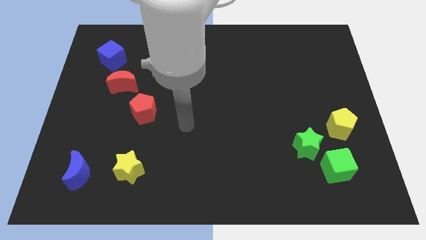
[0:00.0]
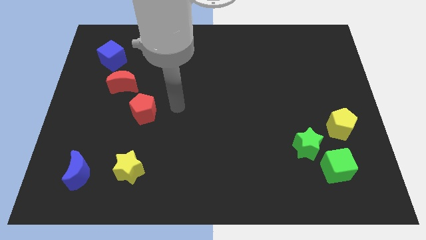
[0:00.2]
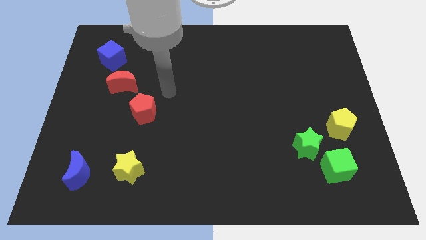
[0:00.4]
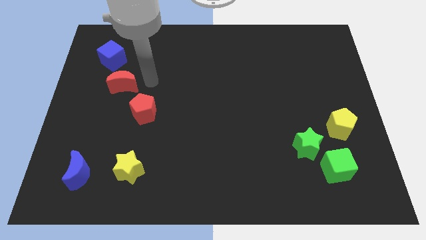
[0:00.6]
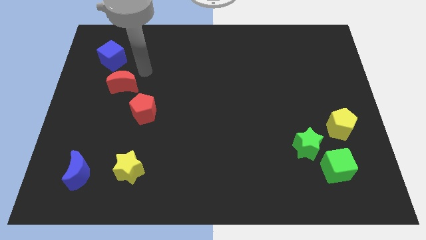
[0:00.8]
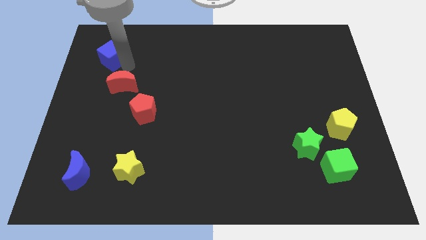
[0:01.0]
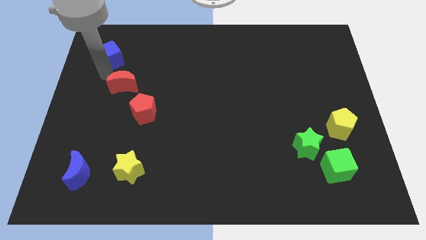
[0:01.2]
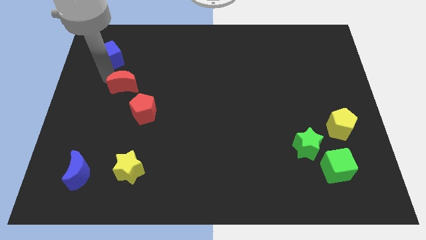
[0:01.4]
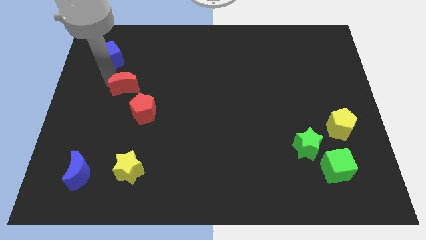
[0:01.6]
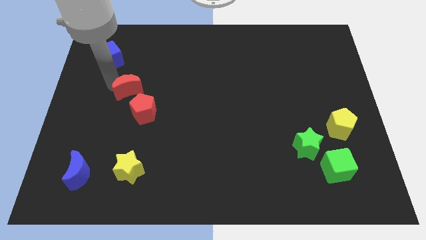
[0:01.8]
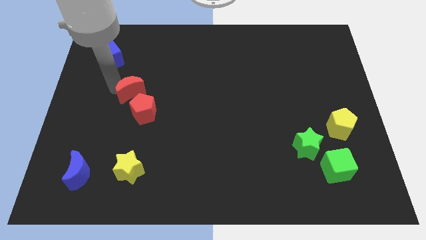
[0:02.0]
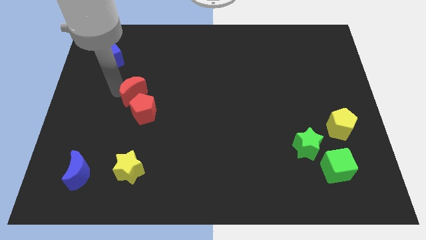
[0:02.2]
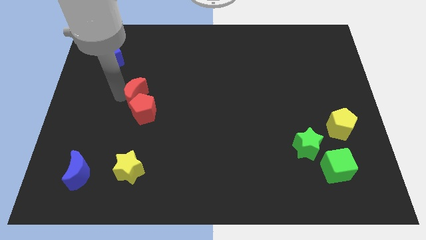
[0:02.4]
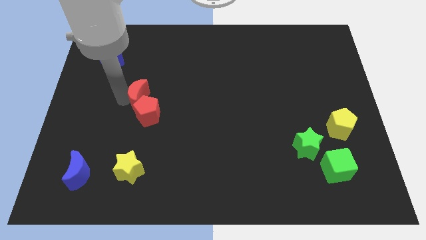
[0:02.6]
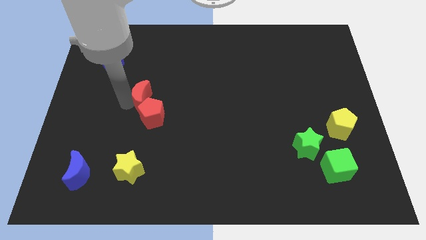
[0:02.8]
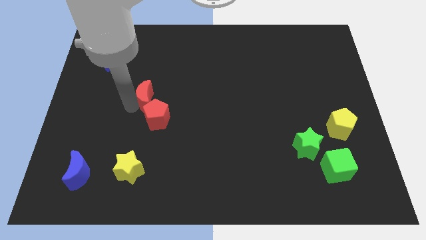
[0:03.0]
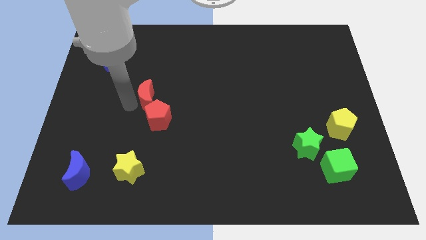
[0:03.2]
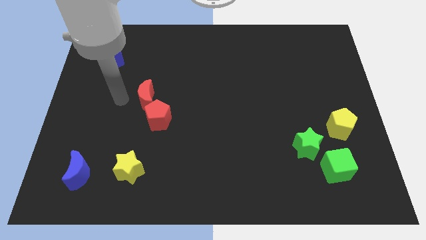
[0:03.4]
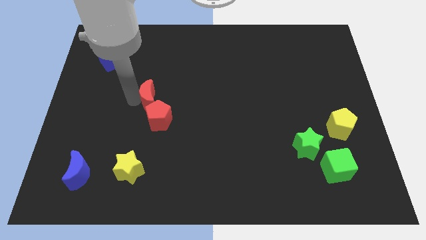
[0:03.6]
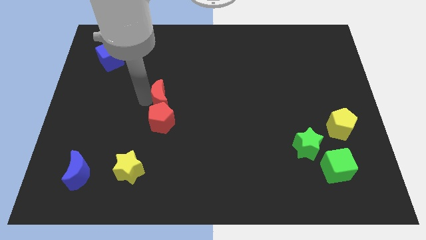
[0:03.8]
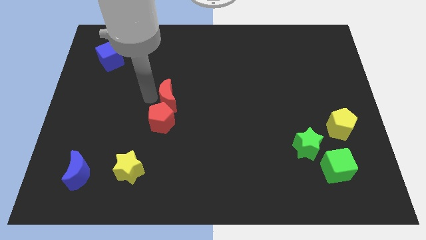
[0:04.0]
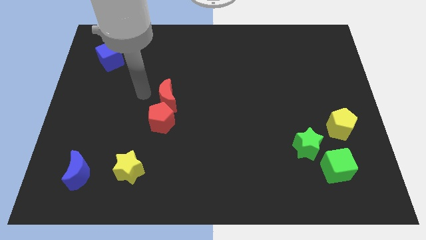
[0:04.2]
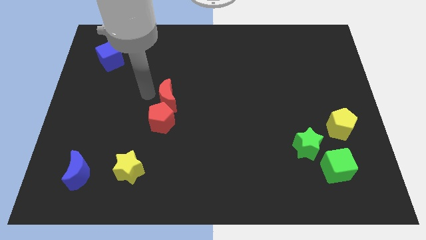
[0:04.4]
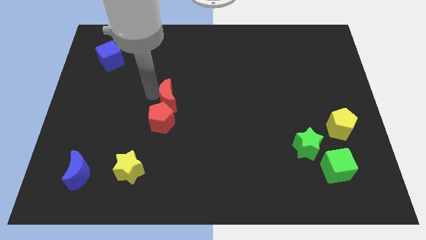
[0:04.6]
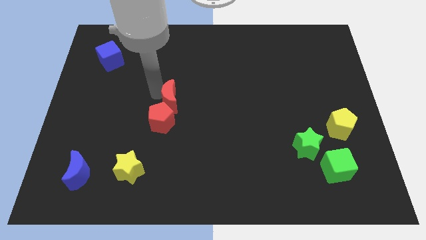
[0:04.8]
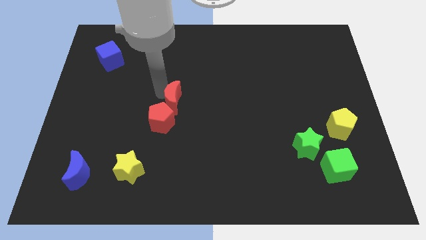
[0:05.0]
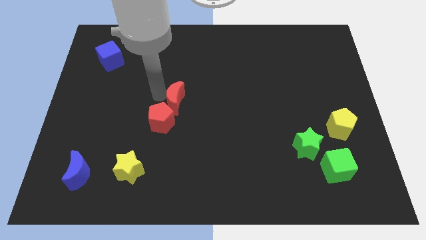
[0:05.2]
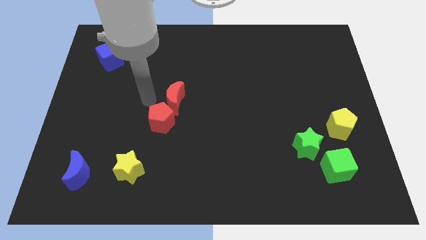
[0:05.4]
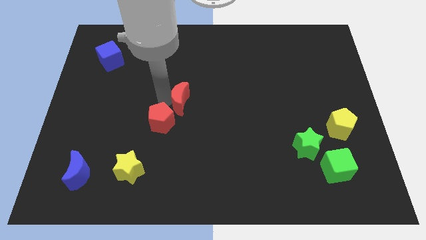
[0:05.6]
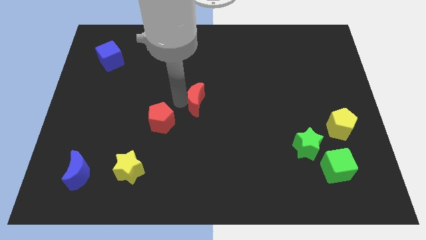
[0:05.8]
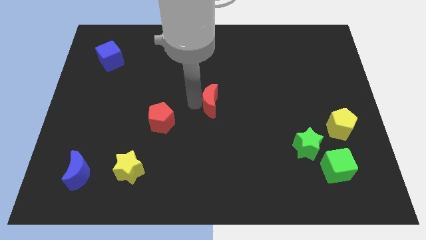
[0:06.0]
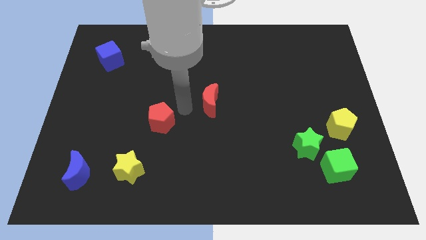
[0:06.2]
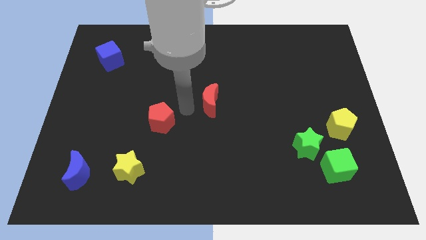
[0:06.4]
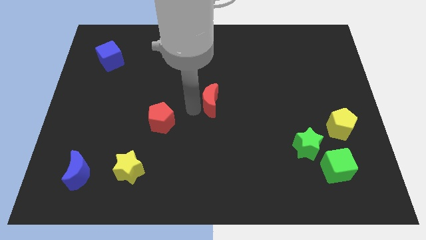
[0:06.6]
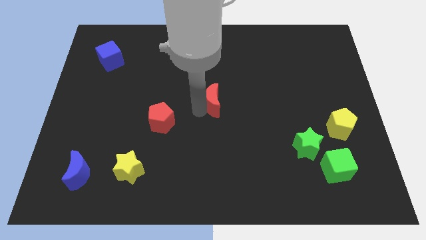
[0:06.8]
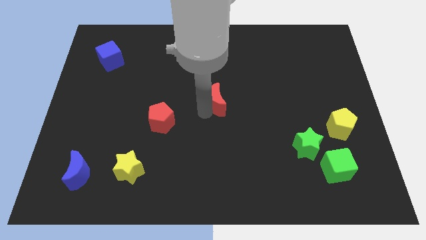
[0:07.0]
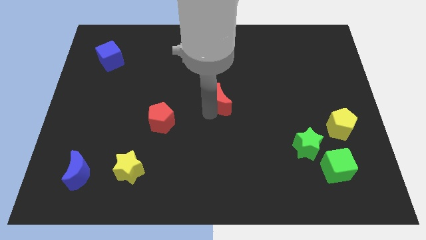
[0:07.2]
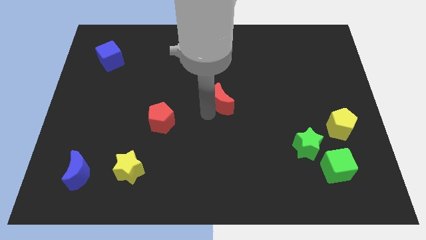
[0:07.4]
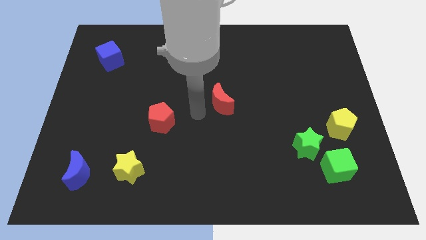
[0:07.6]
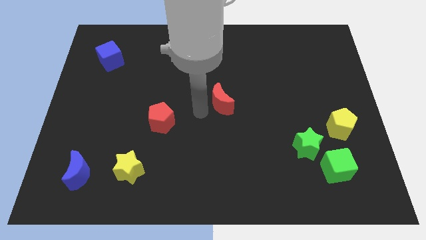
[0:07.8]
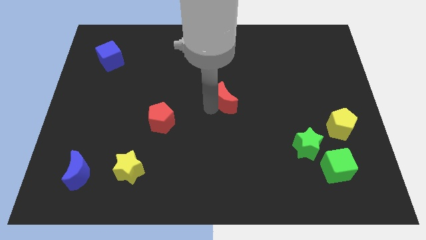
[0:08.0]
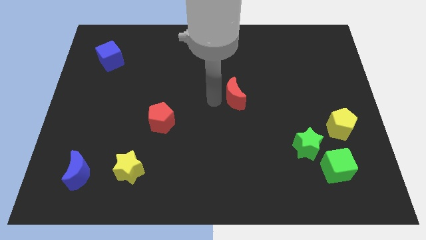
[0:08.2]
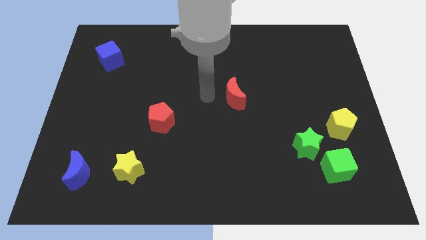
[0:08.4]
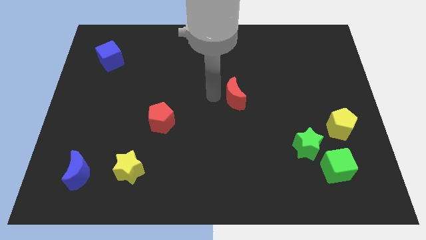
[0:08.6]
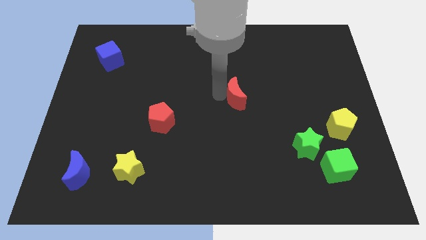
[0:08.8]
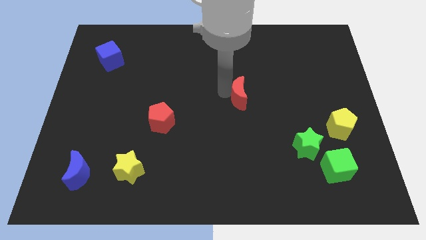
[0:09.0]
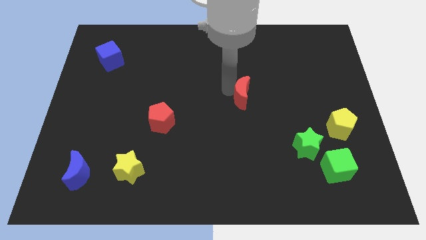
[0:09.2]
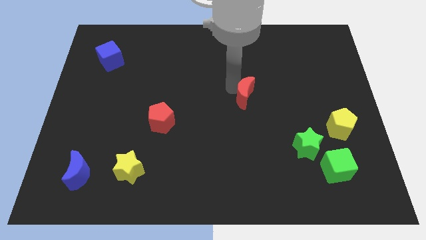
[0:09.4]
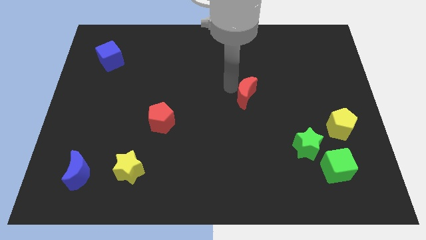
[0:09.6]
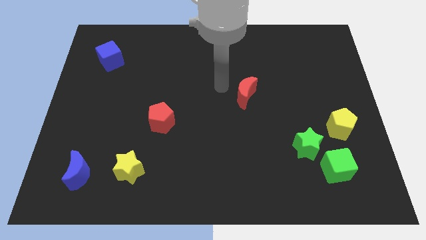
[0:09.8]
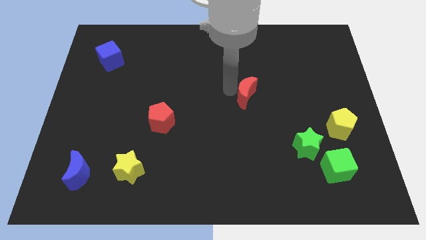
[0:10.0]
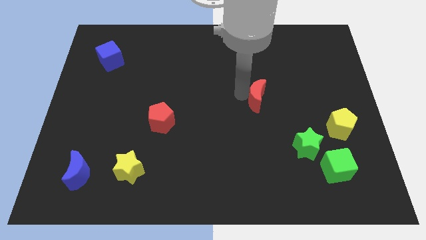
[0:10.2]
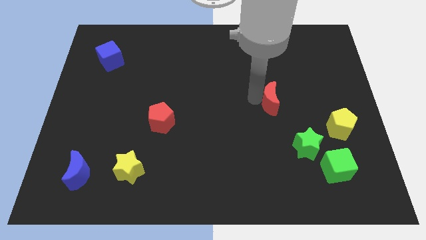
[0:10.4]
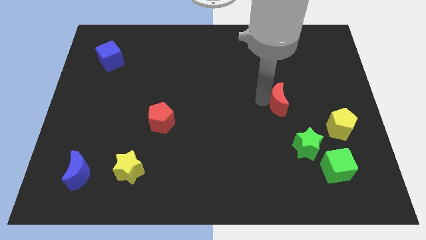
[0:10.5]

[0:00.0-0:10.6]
push the red moon to the top of the green star

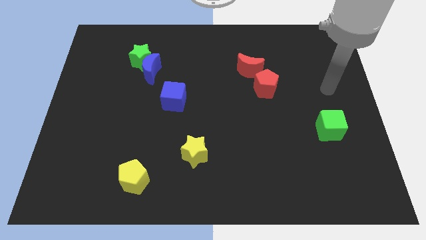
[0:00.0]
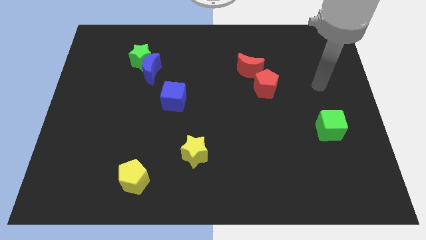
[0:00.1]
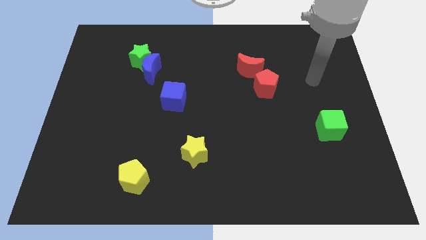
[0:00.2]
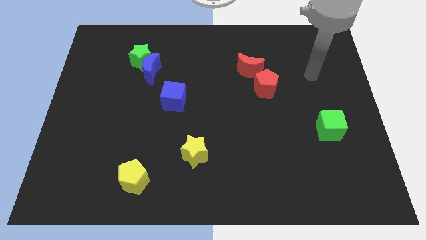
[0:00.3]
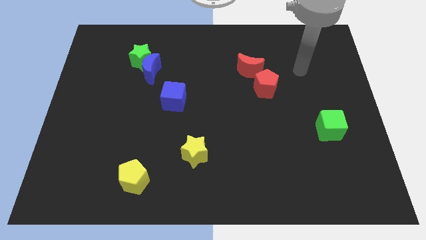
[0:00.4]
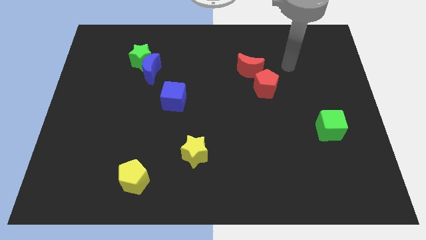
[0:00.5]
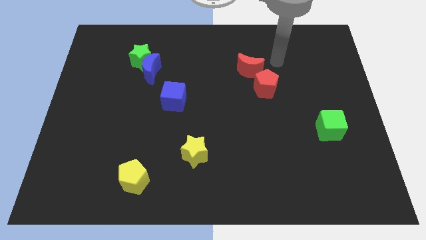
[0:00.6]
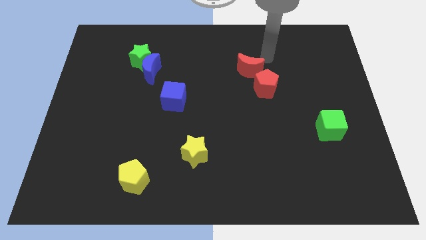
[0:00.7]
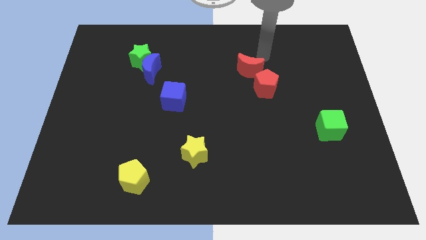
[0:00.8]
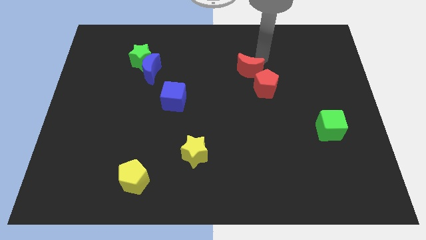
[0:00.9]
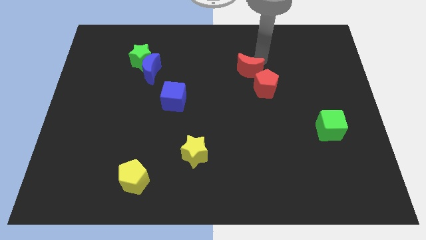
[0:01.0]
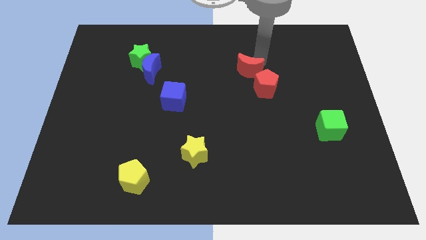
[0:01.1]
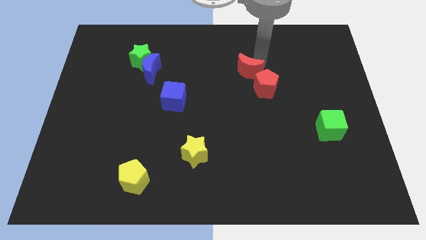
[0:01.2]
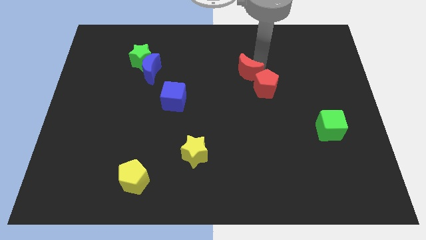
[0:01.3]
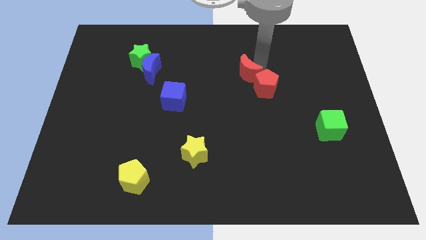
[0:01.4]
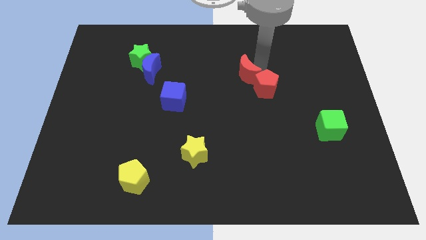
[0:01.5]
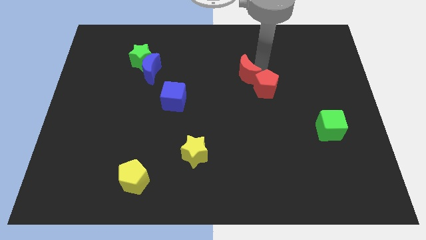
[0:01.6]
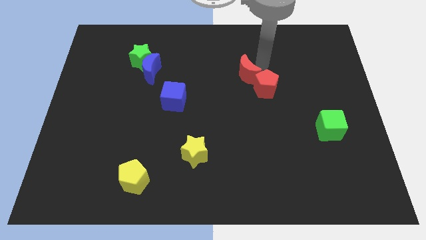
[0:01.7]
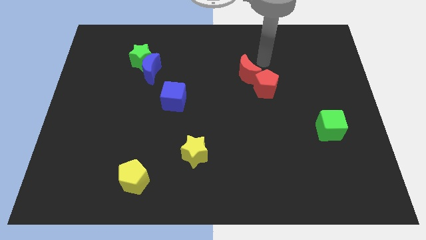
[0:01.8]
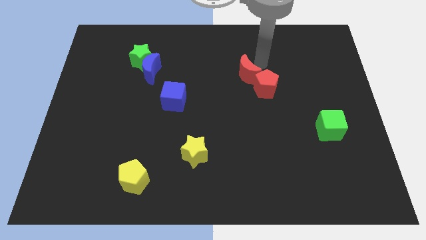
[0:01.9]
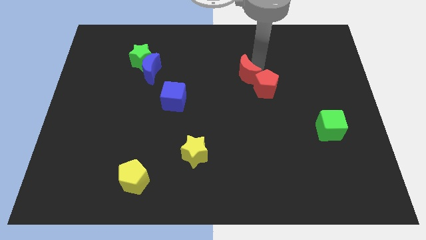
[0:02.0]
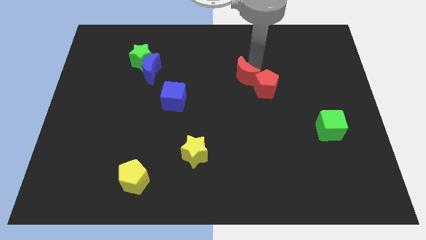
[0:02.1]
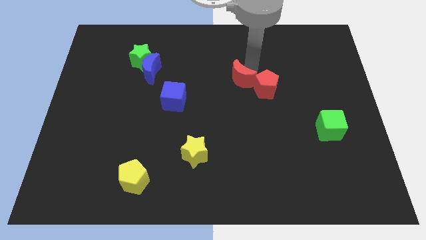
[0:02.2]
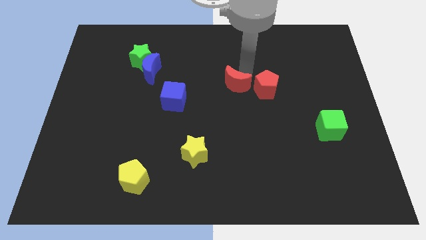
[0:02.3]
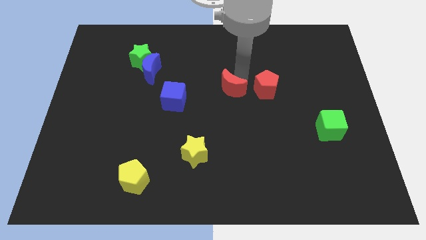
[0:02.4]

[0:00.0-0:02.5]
put the red moon right of the blue cube
